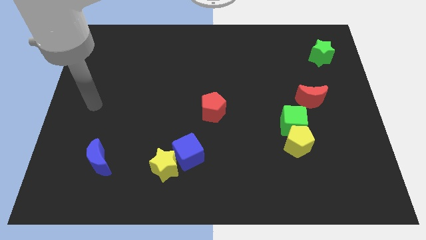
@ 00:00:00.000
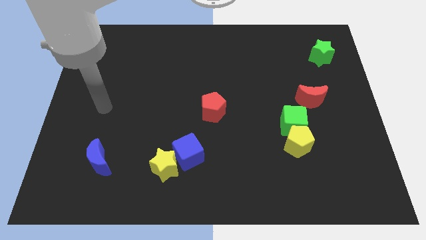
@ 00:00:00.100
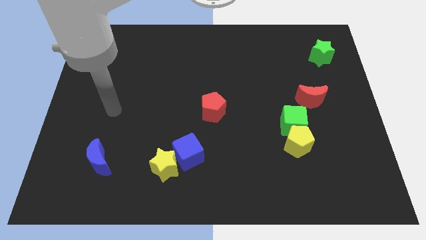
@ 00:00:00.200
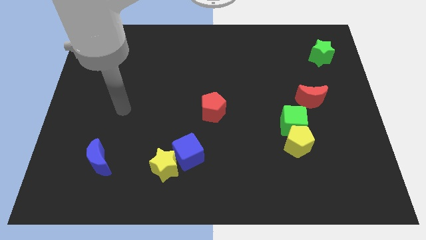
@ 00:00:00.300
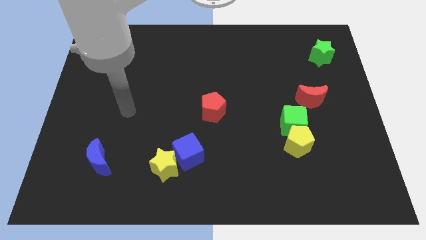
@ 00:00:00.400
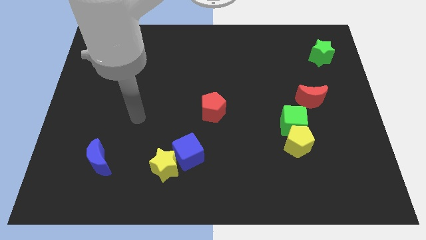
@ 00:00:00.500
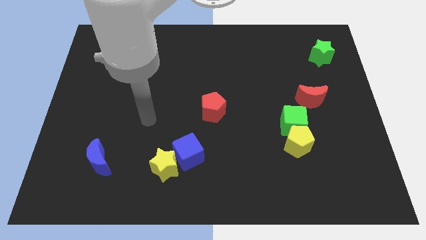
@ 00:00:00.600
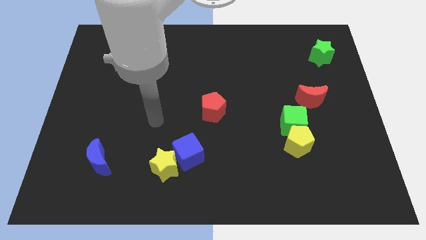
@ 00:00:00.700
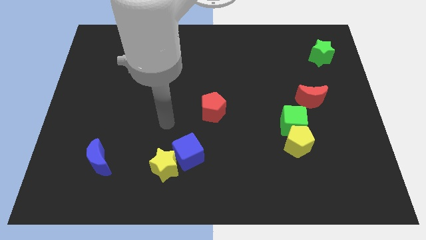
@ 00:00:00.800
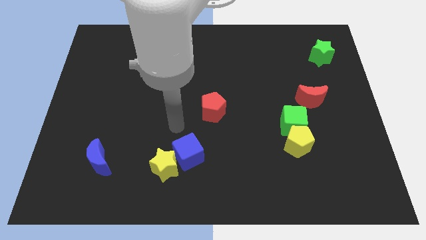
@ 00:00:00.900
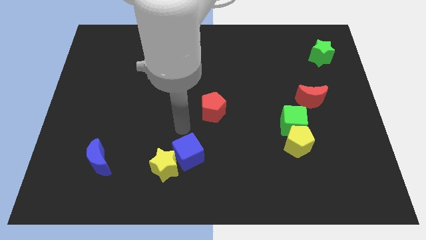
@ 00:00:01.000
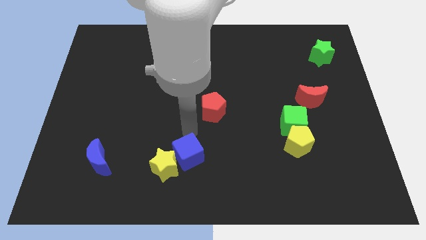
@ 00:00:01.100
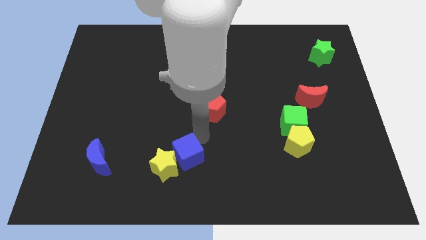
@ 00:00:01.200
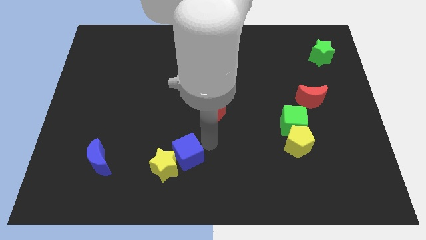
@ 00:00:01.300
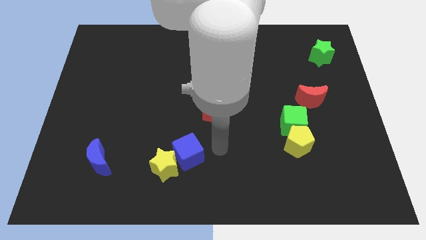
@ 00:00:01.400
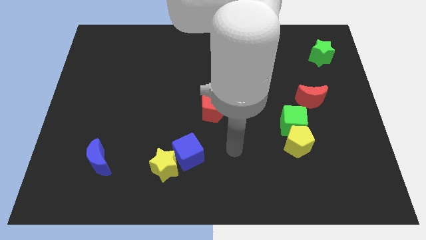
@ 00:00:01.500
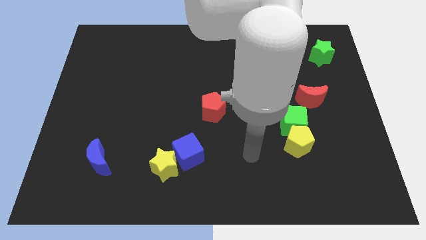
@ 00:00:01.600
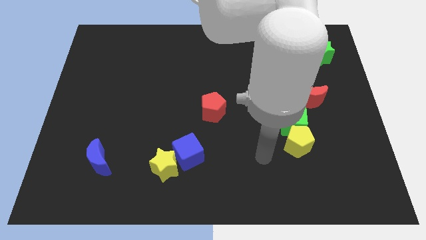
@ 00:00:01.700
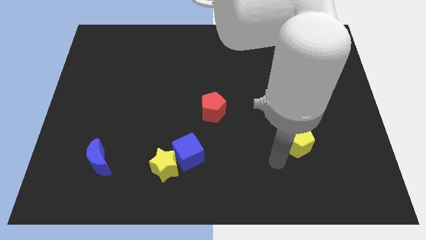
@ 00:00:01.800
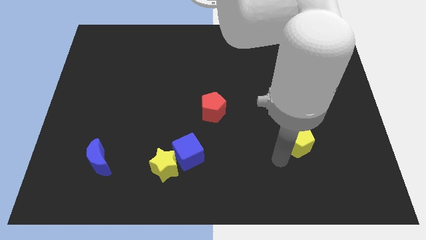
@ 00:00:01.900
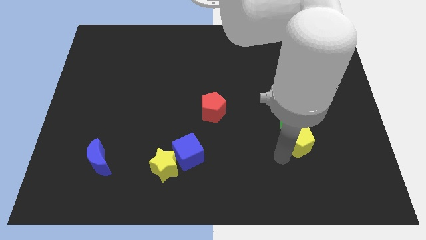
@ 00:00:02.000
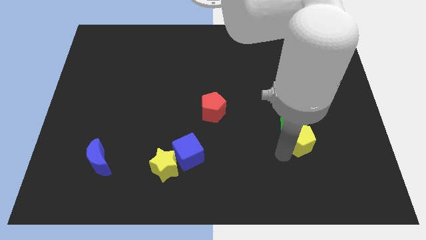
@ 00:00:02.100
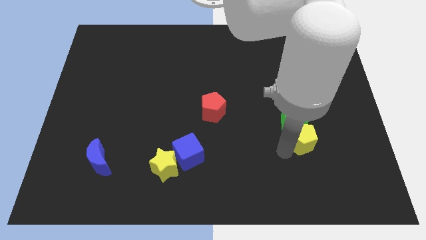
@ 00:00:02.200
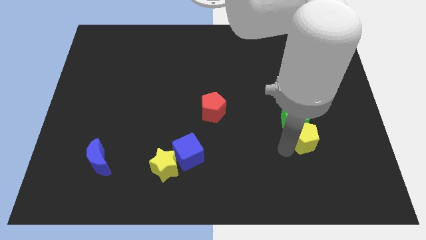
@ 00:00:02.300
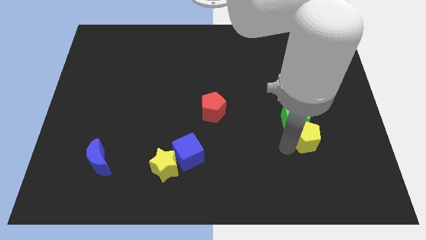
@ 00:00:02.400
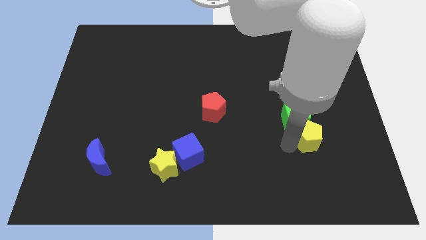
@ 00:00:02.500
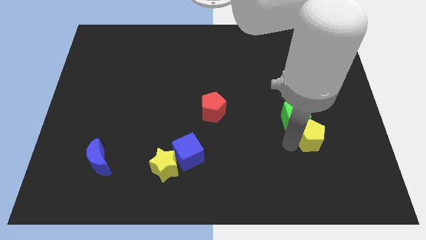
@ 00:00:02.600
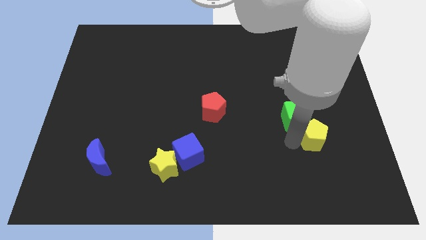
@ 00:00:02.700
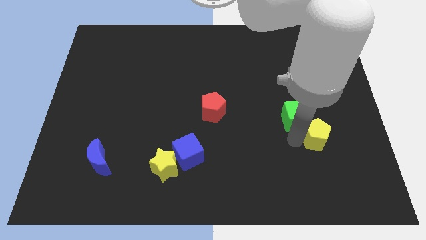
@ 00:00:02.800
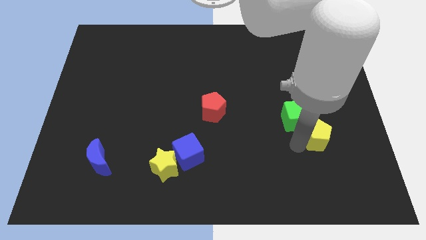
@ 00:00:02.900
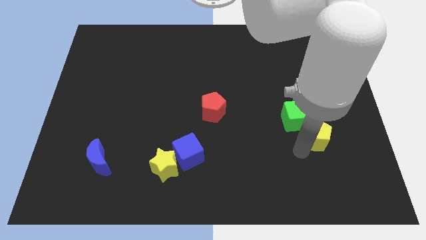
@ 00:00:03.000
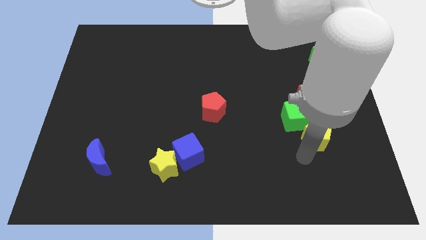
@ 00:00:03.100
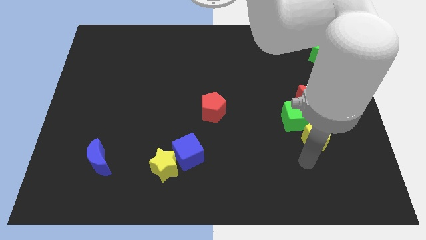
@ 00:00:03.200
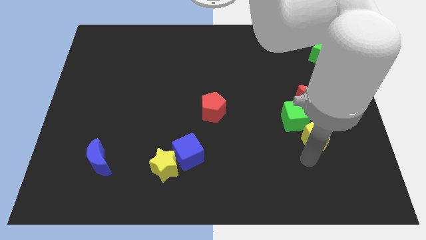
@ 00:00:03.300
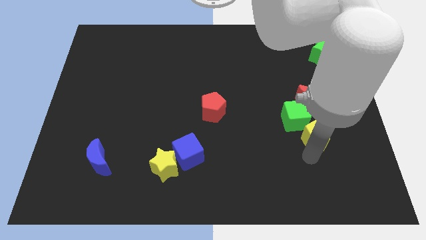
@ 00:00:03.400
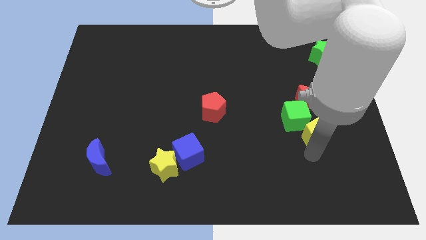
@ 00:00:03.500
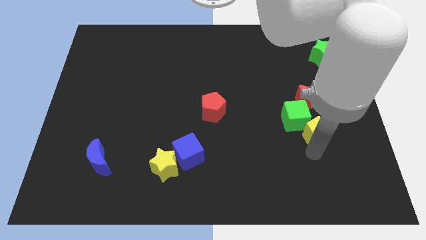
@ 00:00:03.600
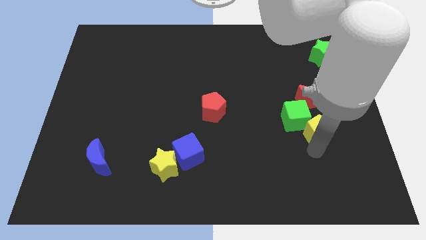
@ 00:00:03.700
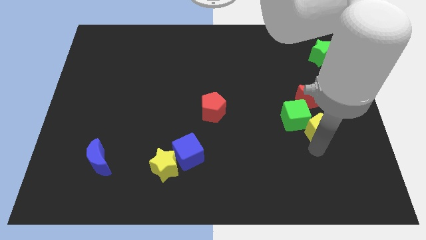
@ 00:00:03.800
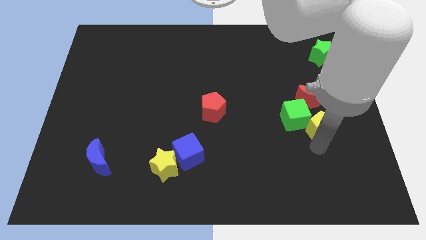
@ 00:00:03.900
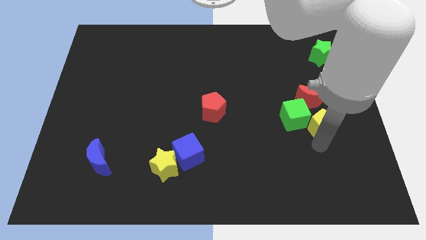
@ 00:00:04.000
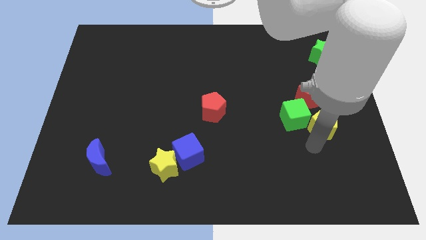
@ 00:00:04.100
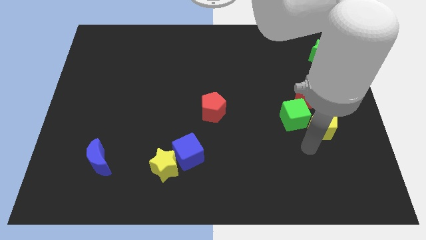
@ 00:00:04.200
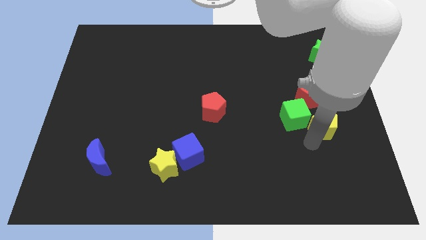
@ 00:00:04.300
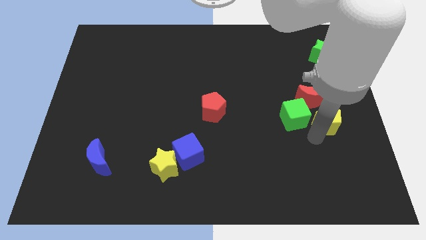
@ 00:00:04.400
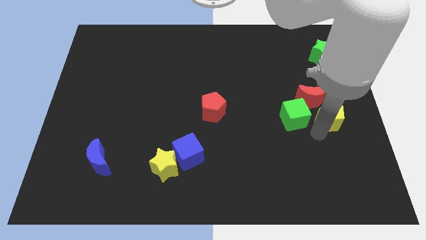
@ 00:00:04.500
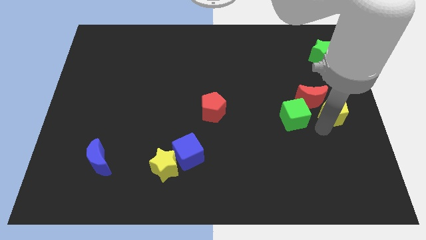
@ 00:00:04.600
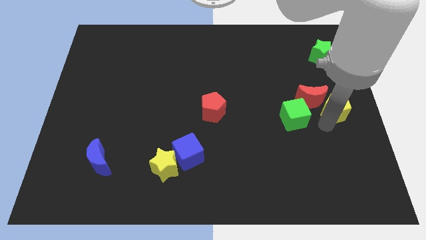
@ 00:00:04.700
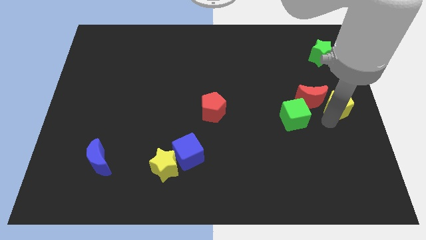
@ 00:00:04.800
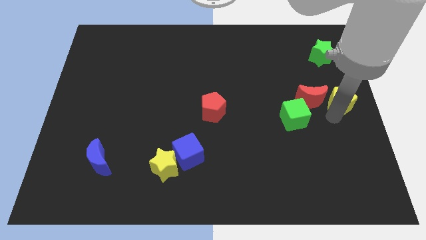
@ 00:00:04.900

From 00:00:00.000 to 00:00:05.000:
move the yellow pentagon below the green star
